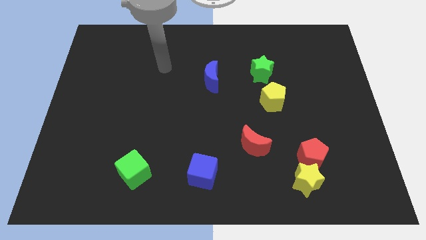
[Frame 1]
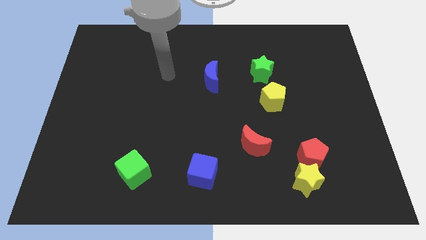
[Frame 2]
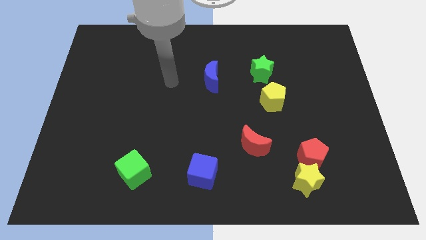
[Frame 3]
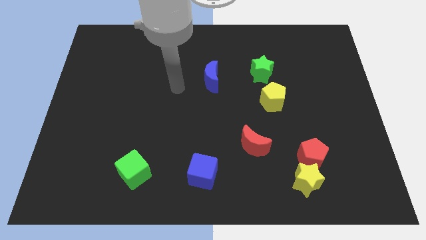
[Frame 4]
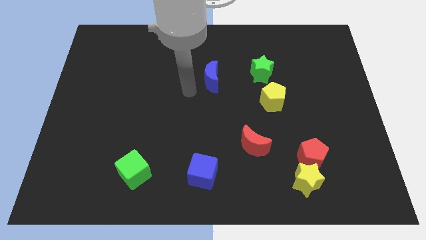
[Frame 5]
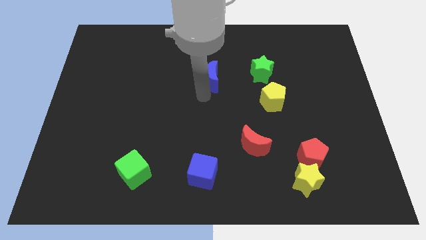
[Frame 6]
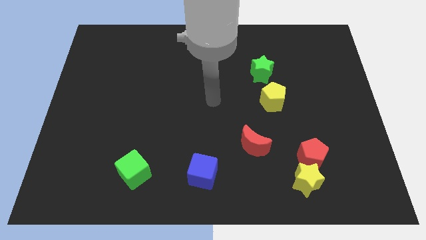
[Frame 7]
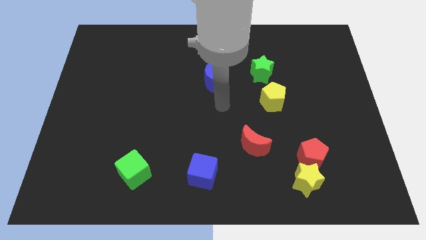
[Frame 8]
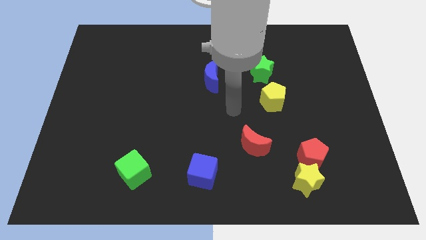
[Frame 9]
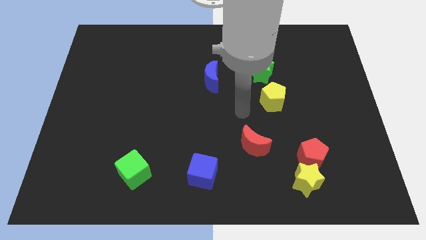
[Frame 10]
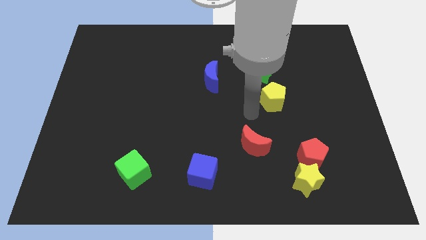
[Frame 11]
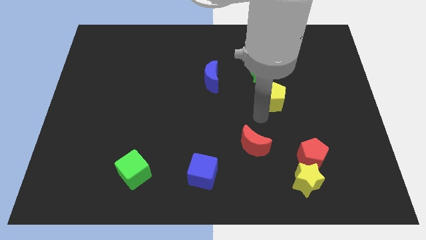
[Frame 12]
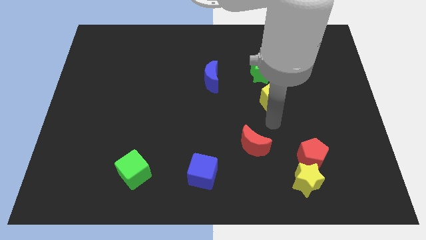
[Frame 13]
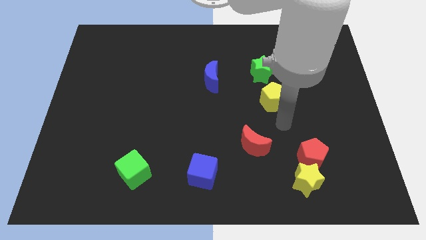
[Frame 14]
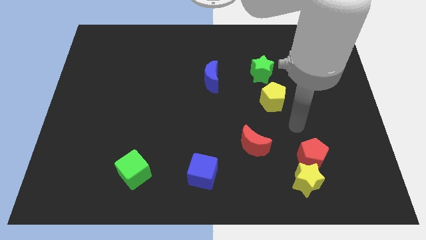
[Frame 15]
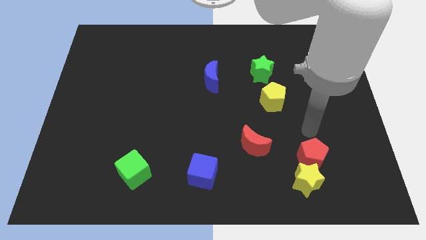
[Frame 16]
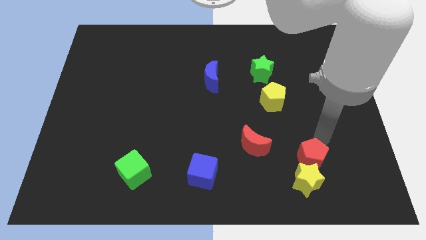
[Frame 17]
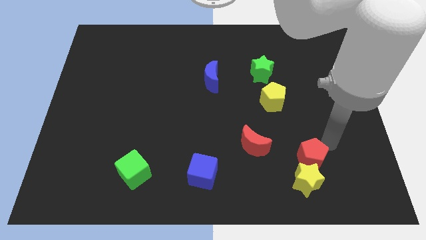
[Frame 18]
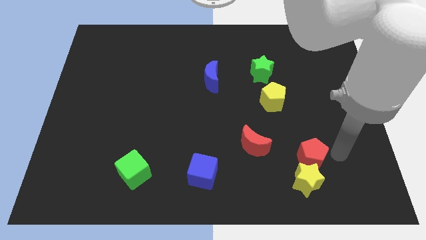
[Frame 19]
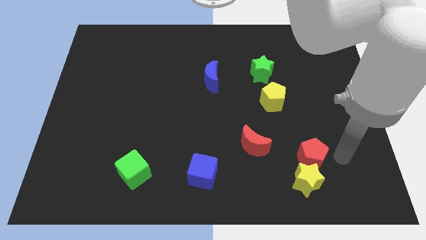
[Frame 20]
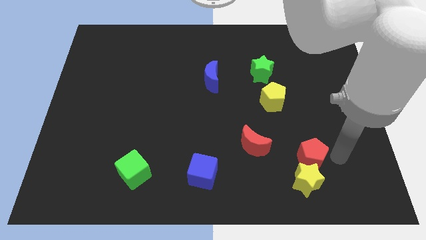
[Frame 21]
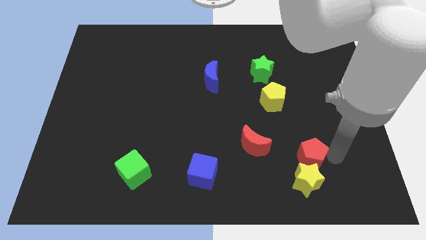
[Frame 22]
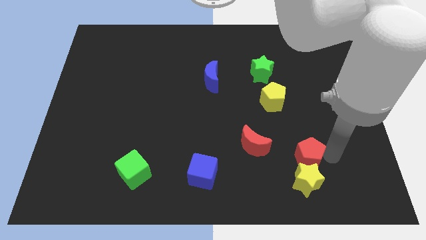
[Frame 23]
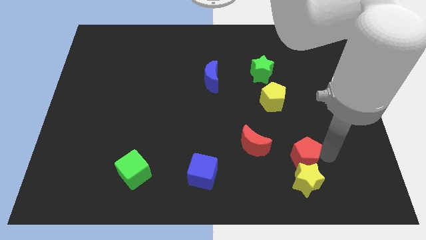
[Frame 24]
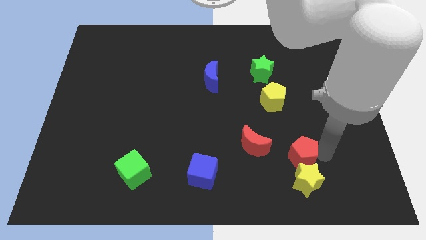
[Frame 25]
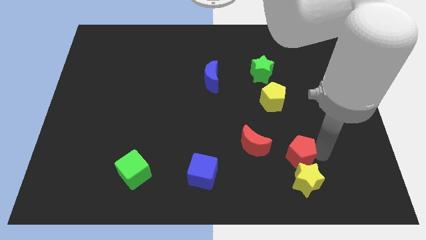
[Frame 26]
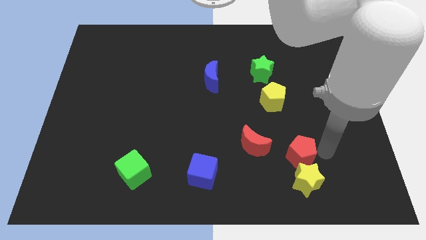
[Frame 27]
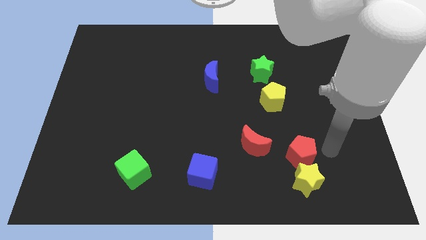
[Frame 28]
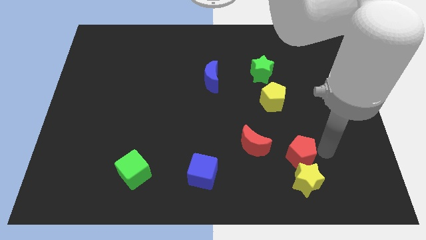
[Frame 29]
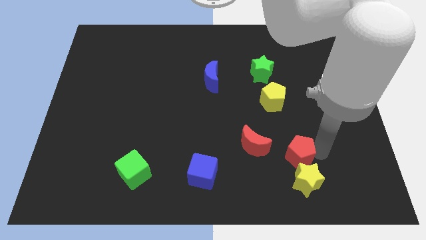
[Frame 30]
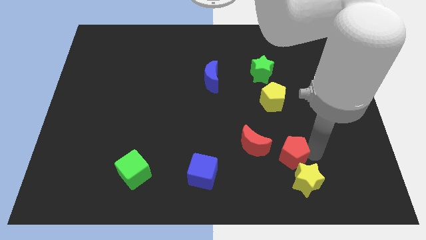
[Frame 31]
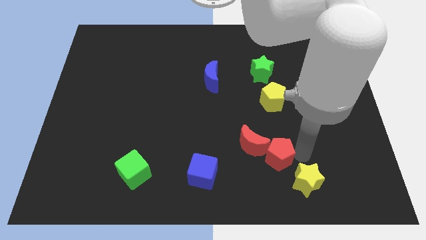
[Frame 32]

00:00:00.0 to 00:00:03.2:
slightly slide the red pentagon to the left

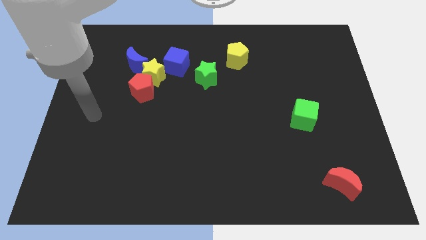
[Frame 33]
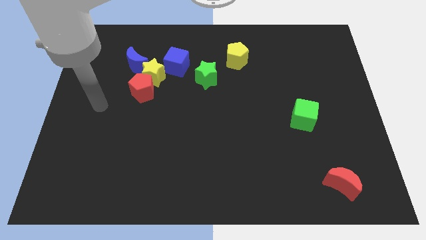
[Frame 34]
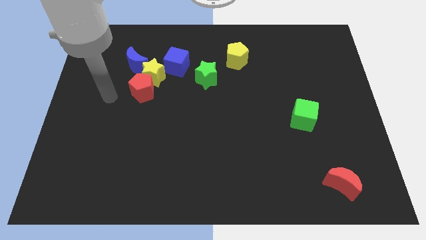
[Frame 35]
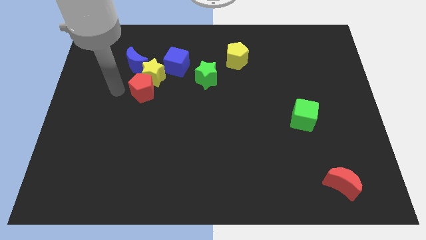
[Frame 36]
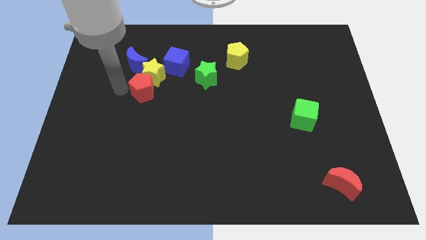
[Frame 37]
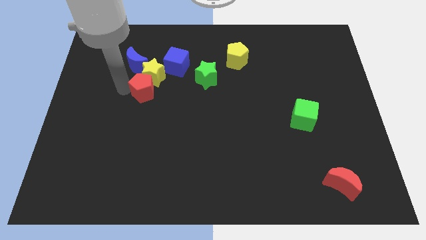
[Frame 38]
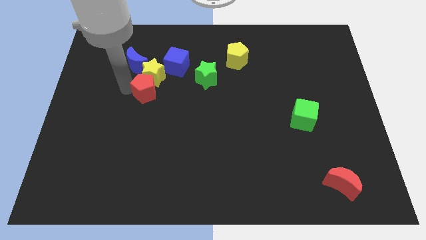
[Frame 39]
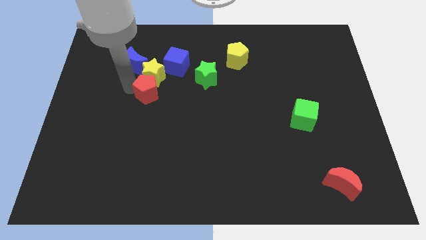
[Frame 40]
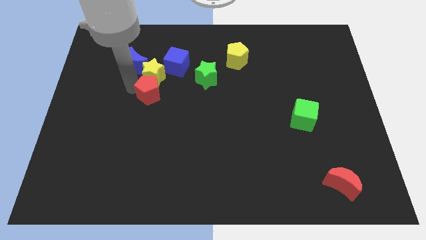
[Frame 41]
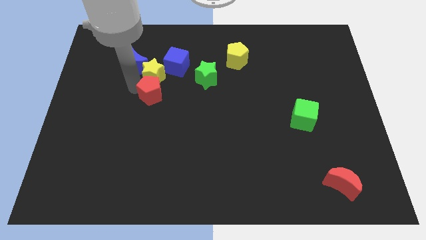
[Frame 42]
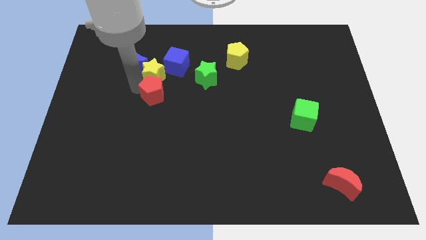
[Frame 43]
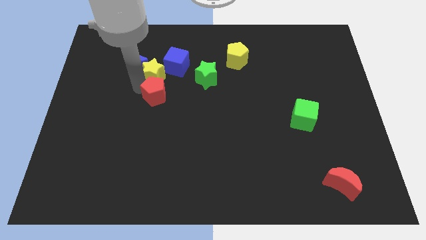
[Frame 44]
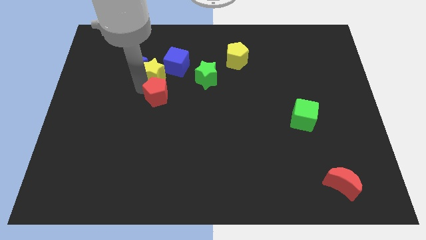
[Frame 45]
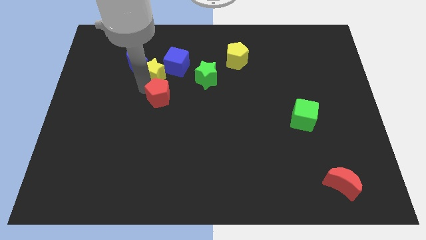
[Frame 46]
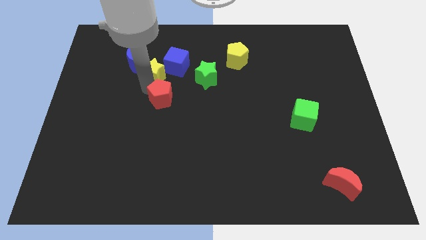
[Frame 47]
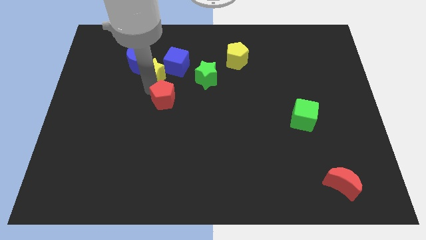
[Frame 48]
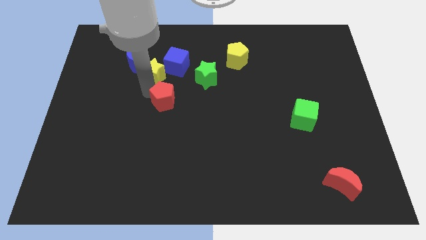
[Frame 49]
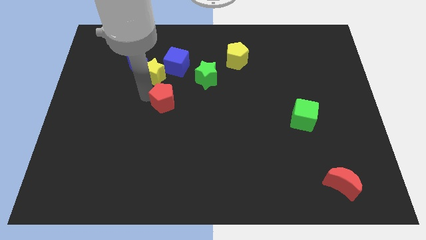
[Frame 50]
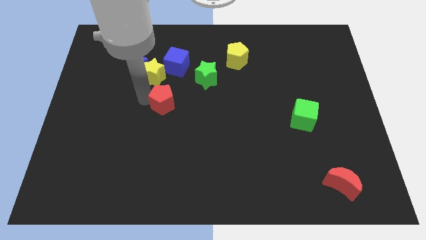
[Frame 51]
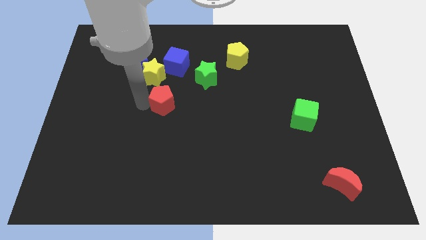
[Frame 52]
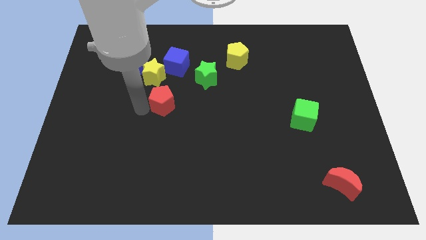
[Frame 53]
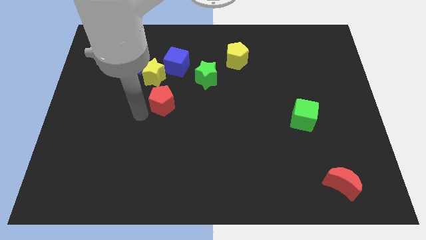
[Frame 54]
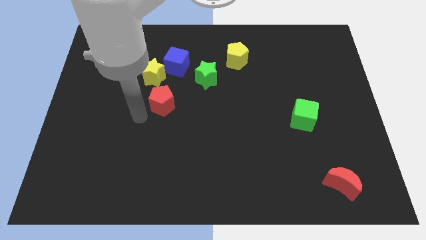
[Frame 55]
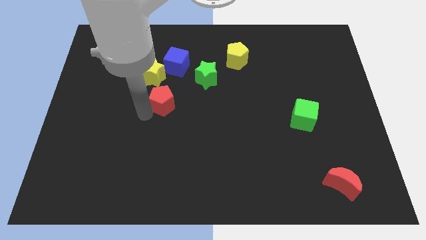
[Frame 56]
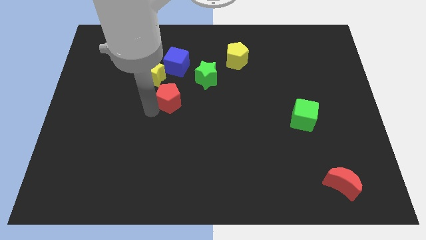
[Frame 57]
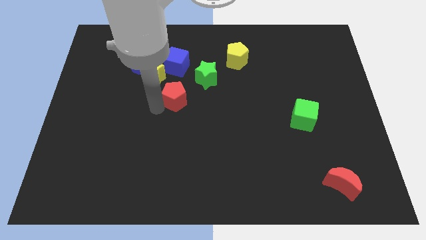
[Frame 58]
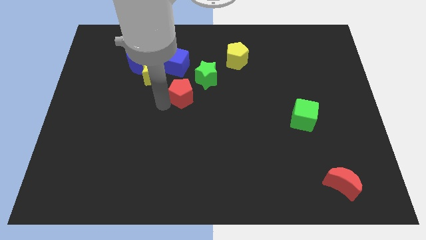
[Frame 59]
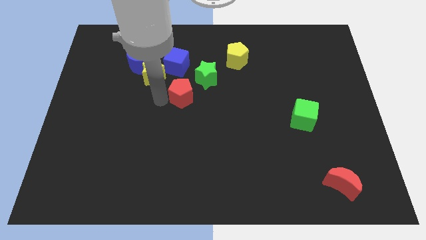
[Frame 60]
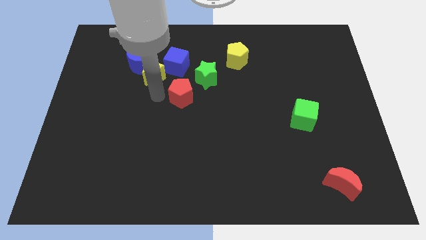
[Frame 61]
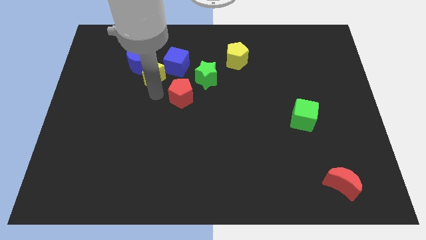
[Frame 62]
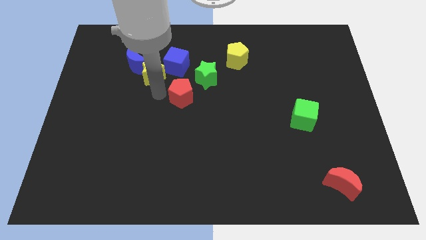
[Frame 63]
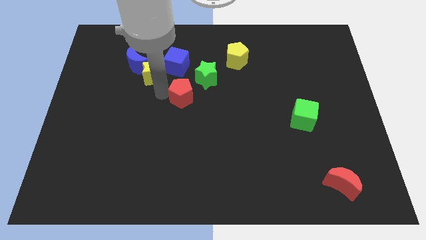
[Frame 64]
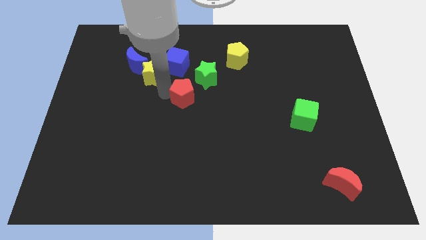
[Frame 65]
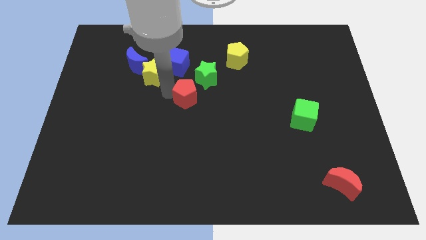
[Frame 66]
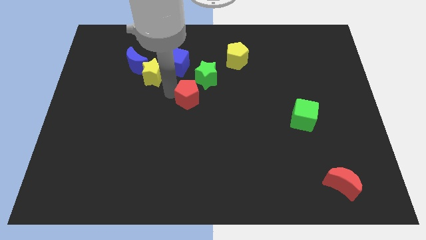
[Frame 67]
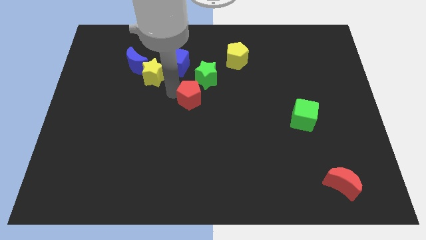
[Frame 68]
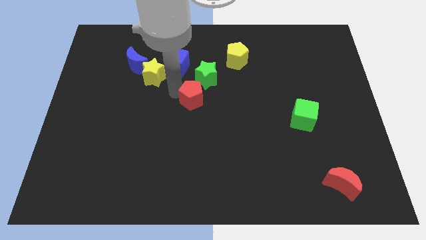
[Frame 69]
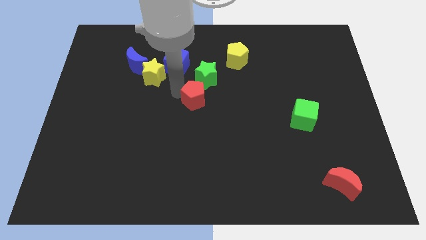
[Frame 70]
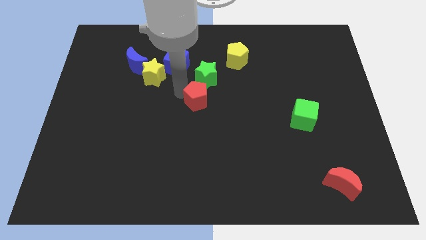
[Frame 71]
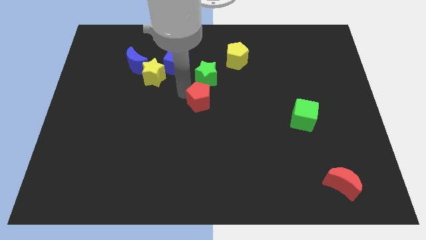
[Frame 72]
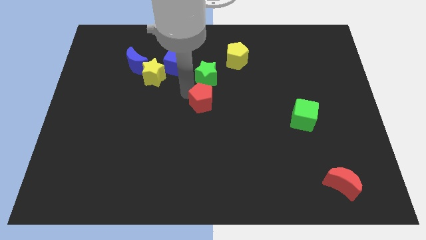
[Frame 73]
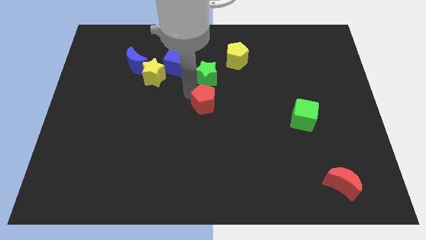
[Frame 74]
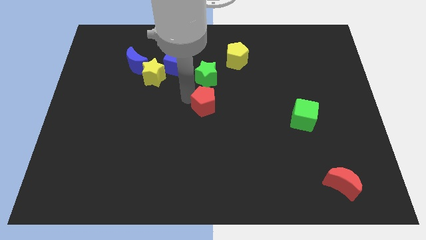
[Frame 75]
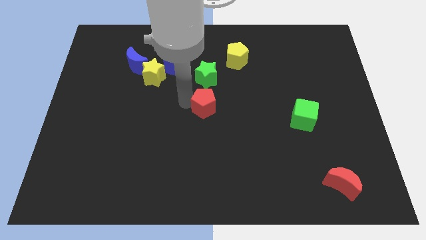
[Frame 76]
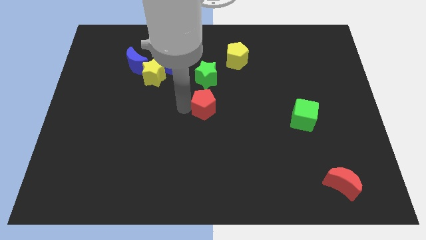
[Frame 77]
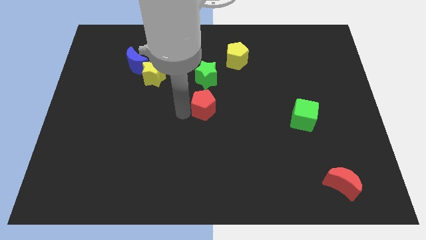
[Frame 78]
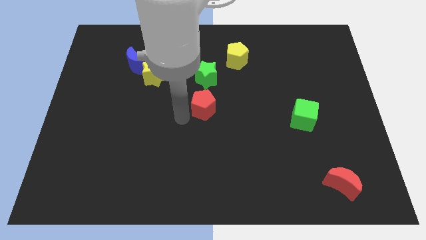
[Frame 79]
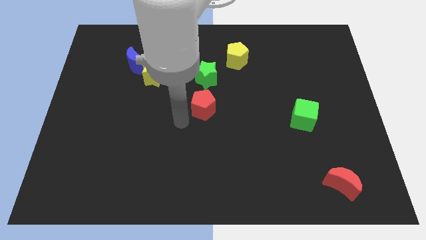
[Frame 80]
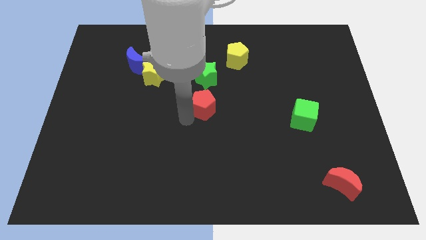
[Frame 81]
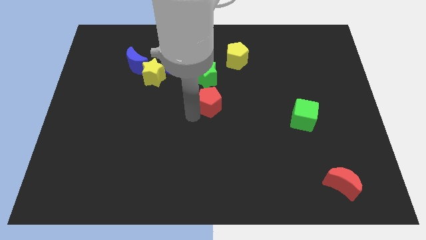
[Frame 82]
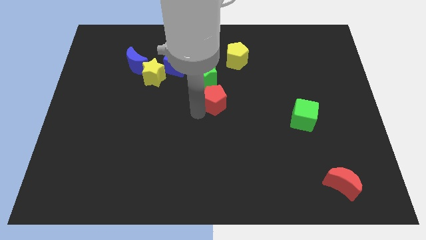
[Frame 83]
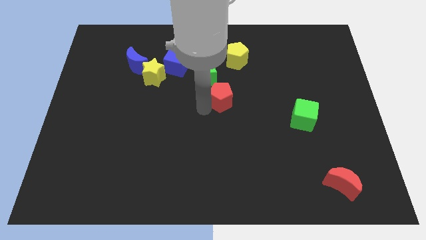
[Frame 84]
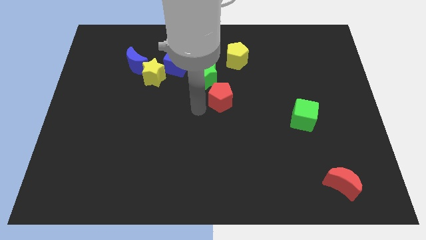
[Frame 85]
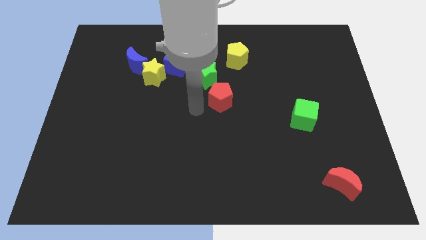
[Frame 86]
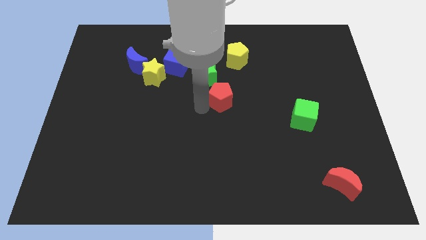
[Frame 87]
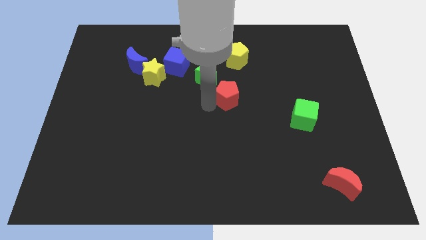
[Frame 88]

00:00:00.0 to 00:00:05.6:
slide the red pentagon right
